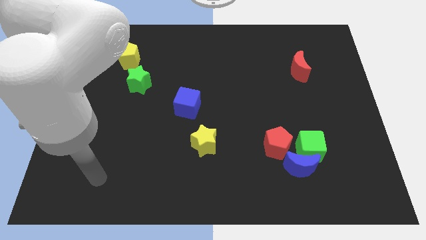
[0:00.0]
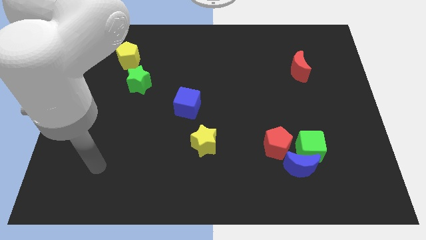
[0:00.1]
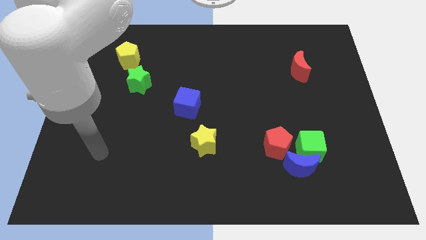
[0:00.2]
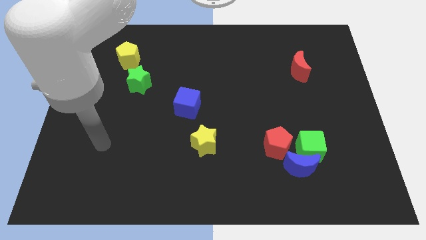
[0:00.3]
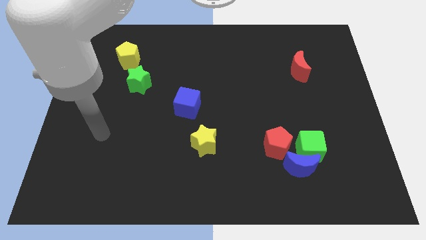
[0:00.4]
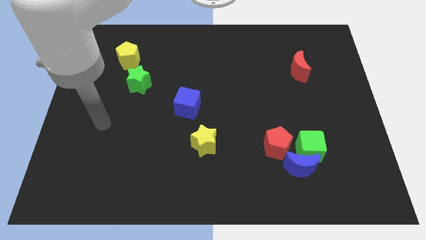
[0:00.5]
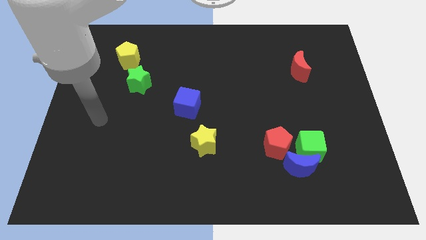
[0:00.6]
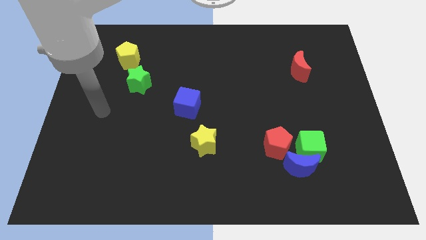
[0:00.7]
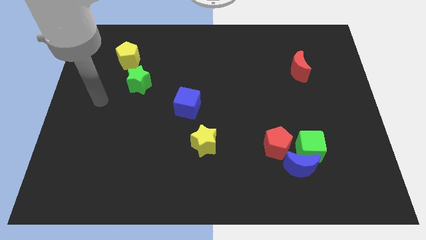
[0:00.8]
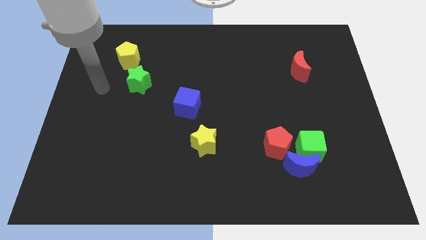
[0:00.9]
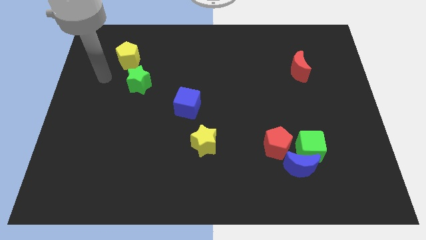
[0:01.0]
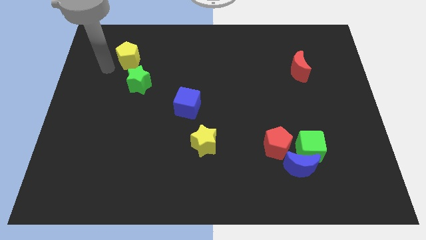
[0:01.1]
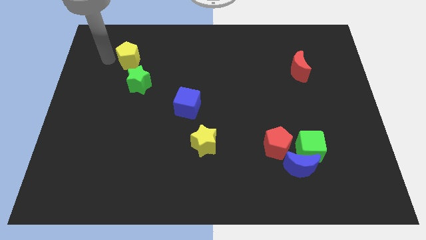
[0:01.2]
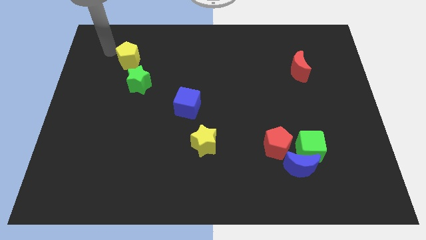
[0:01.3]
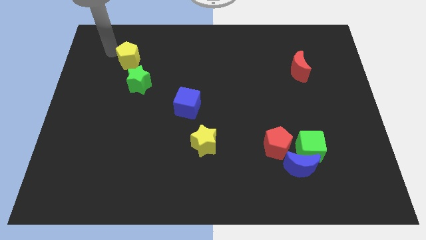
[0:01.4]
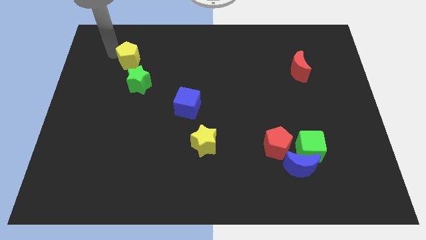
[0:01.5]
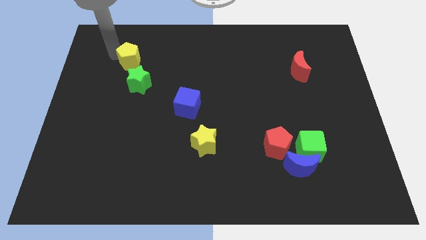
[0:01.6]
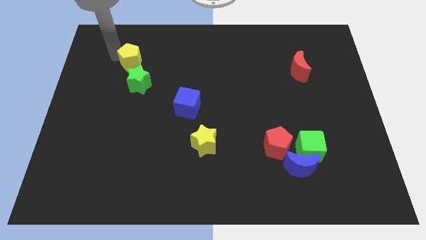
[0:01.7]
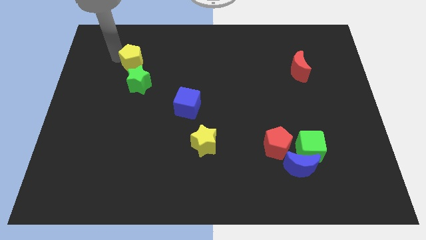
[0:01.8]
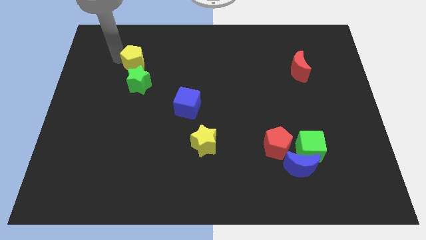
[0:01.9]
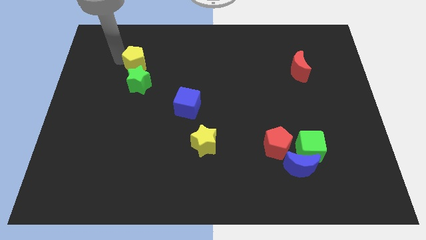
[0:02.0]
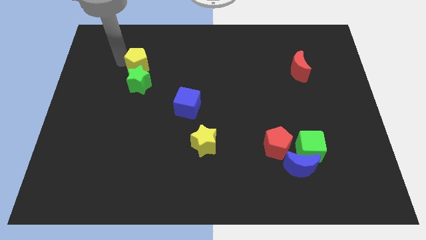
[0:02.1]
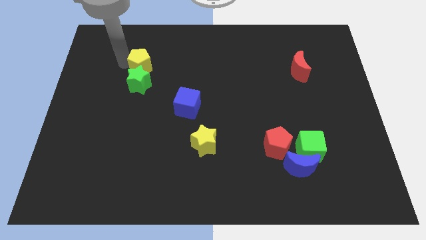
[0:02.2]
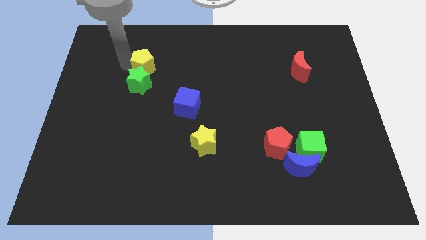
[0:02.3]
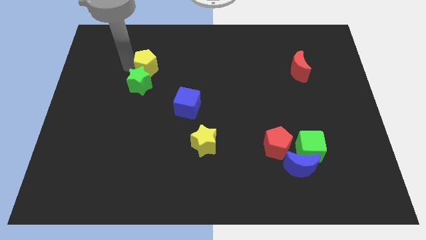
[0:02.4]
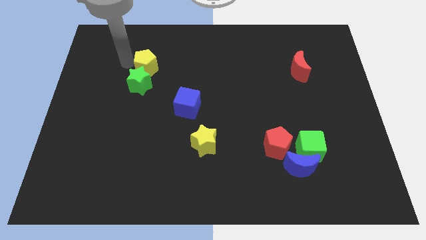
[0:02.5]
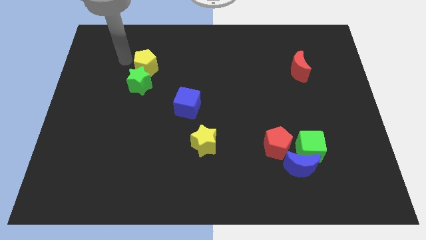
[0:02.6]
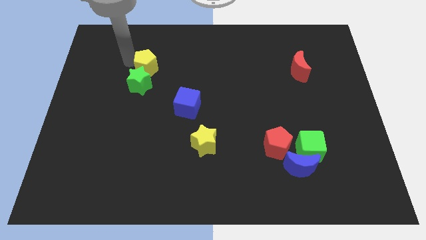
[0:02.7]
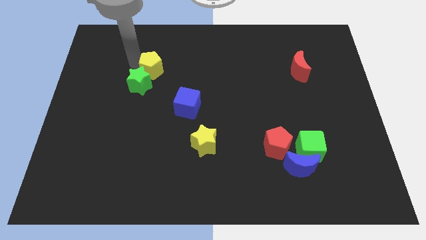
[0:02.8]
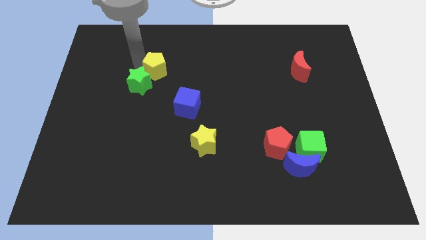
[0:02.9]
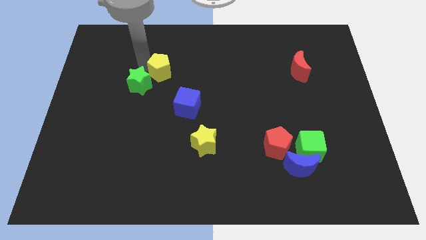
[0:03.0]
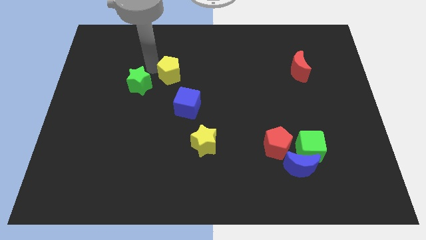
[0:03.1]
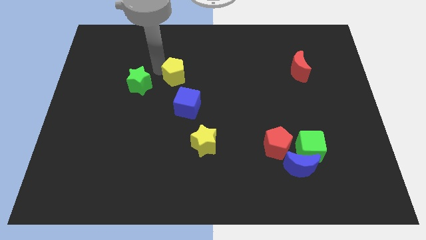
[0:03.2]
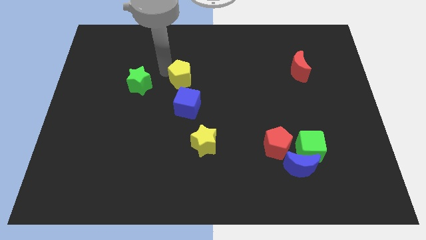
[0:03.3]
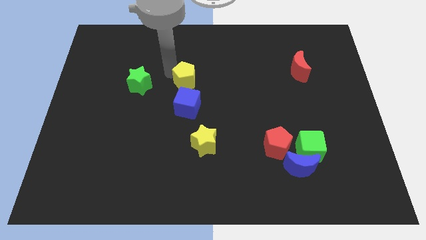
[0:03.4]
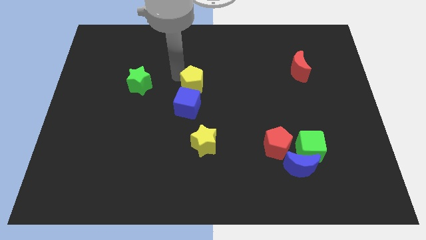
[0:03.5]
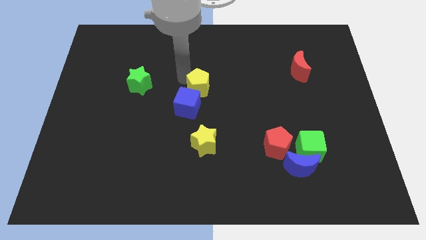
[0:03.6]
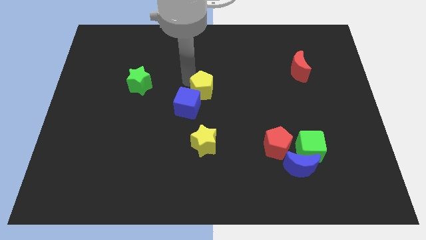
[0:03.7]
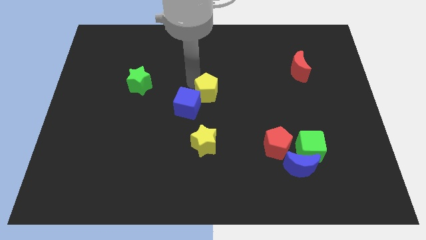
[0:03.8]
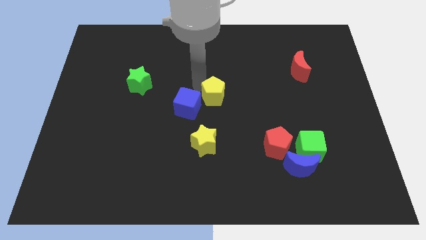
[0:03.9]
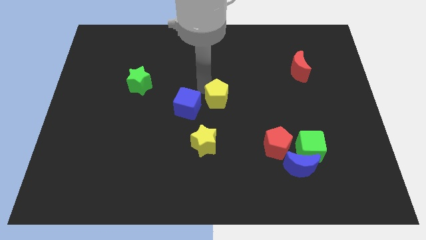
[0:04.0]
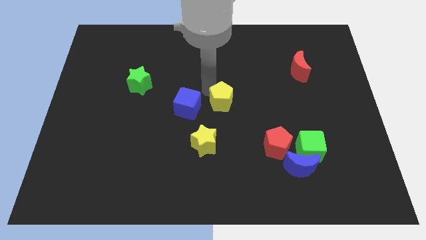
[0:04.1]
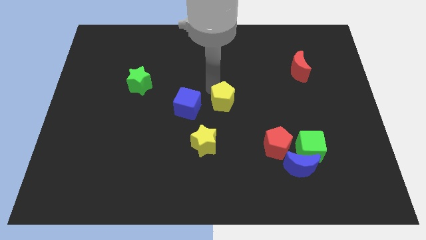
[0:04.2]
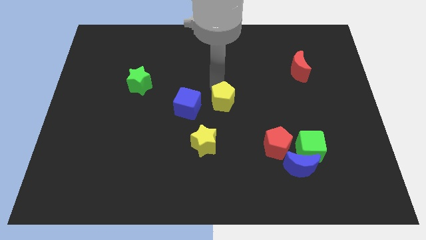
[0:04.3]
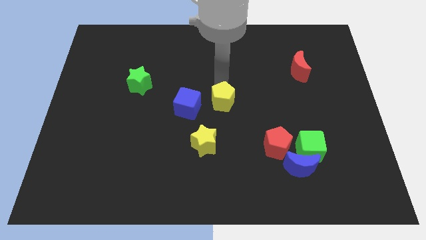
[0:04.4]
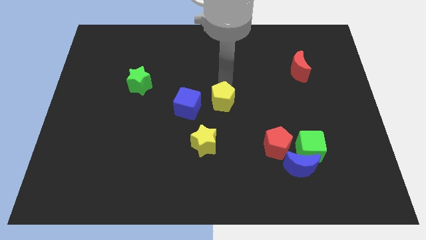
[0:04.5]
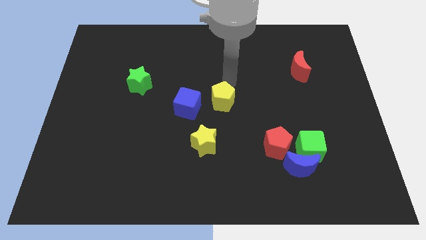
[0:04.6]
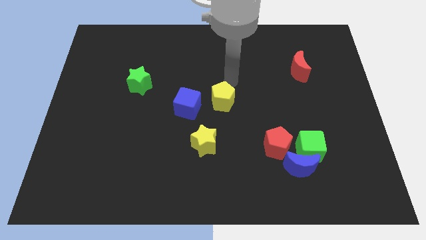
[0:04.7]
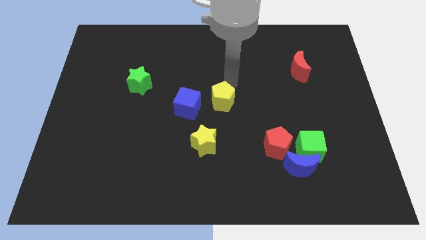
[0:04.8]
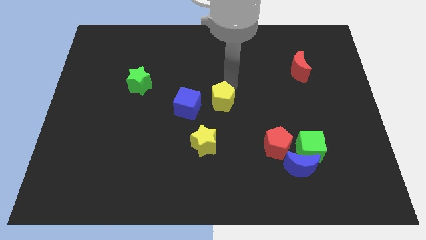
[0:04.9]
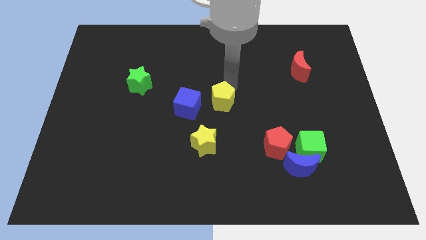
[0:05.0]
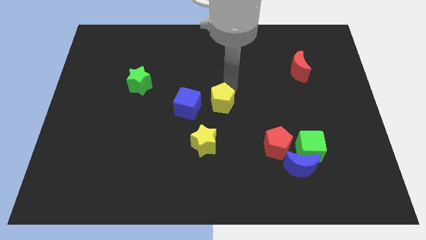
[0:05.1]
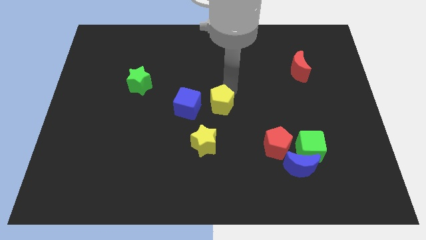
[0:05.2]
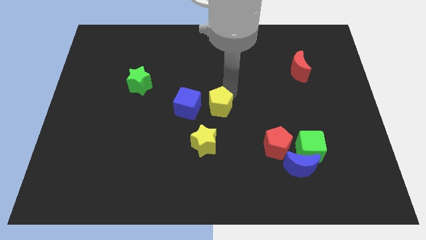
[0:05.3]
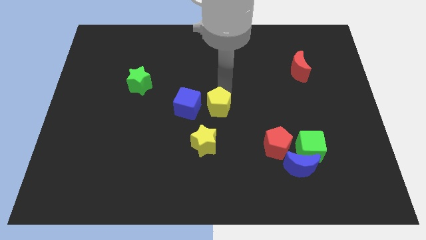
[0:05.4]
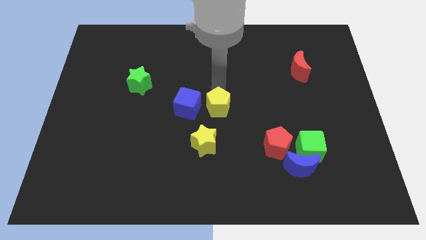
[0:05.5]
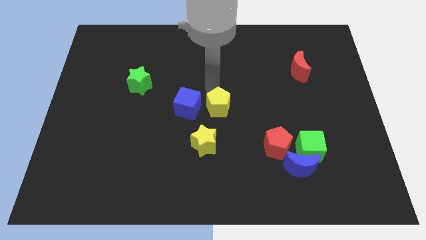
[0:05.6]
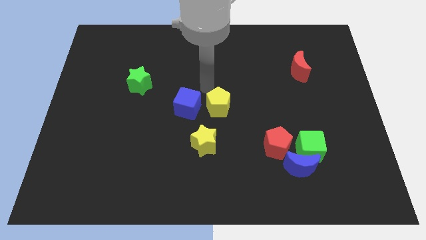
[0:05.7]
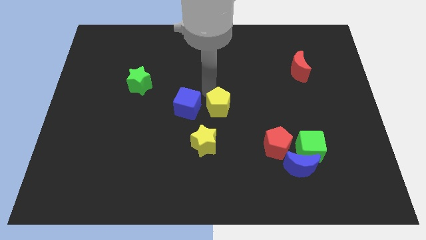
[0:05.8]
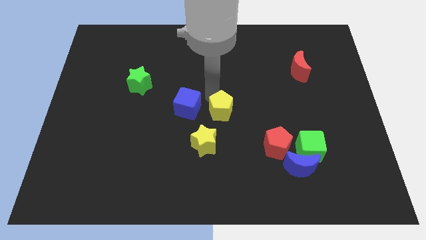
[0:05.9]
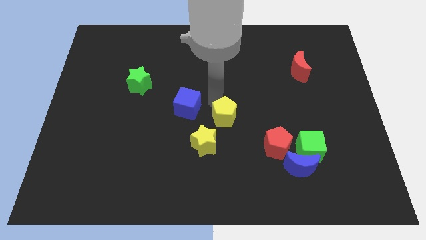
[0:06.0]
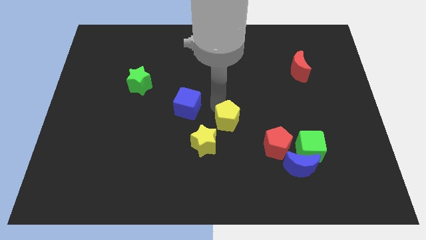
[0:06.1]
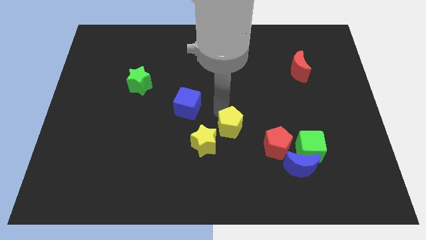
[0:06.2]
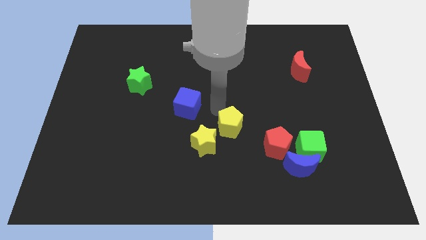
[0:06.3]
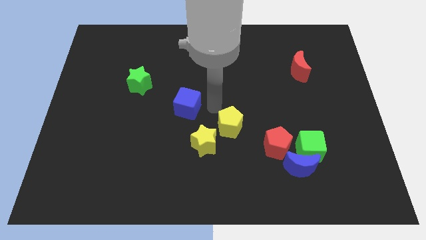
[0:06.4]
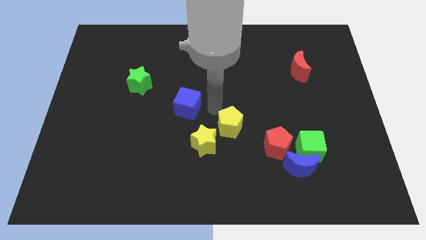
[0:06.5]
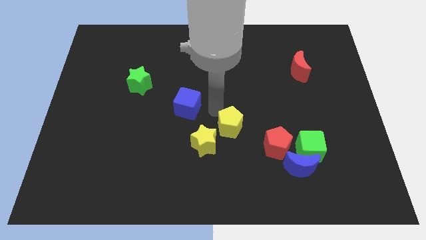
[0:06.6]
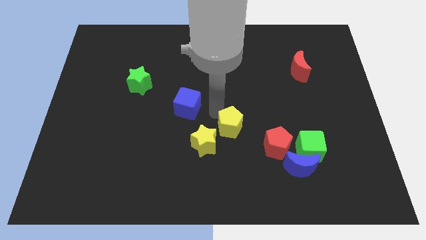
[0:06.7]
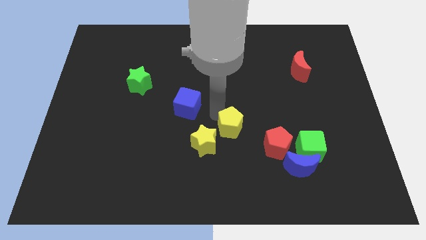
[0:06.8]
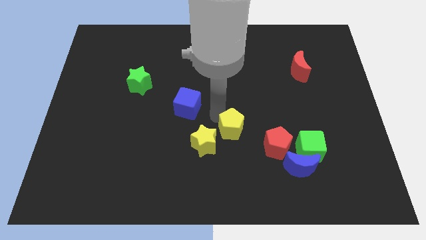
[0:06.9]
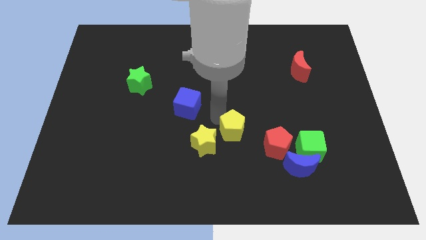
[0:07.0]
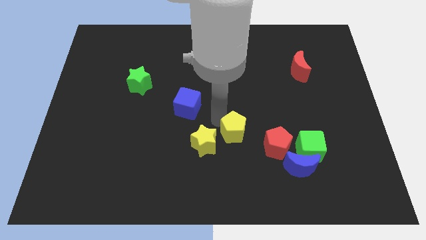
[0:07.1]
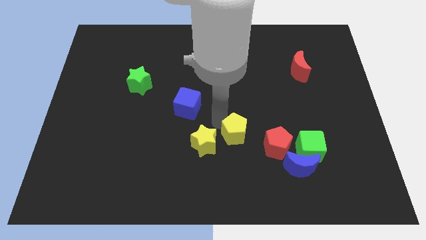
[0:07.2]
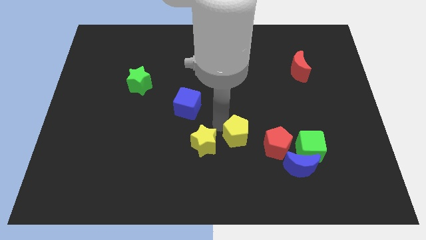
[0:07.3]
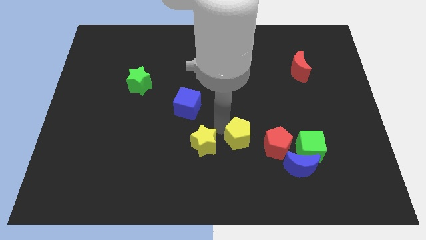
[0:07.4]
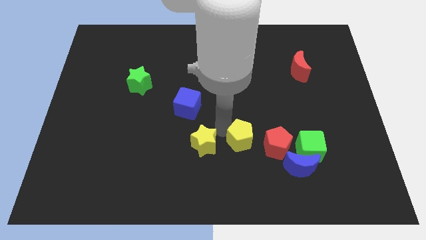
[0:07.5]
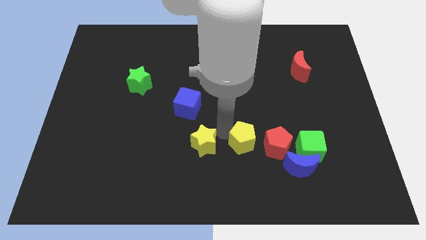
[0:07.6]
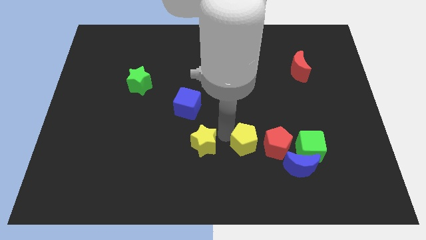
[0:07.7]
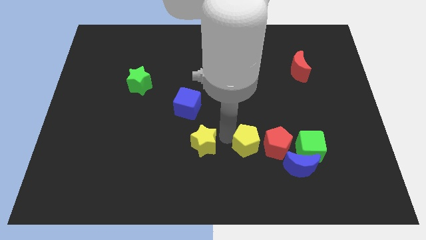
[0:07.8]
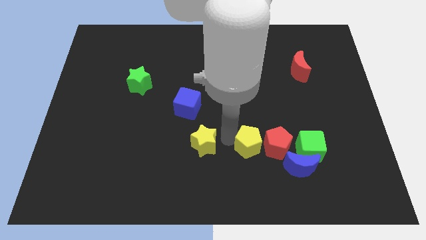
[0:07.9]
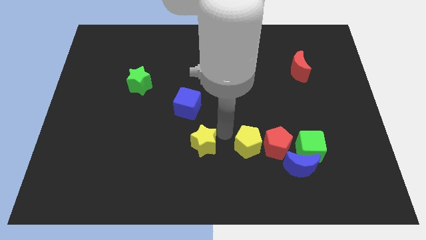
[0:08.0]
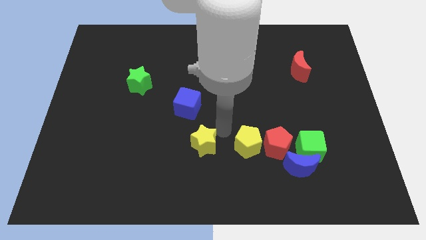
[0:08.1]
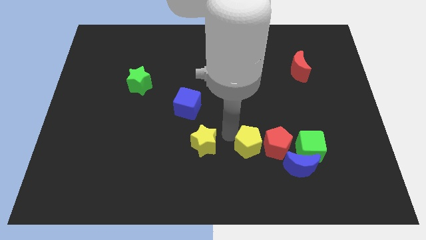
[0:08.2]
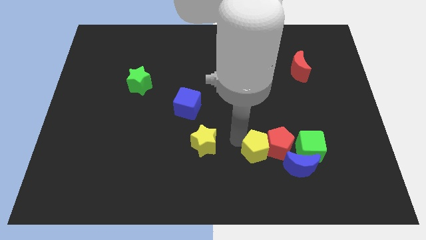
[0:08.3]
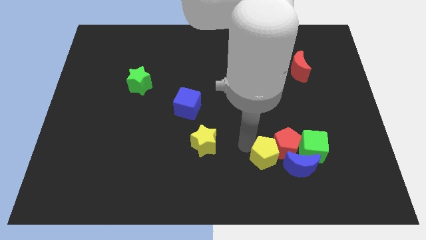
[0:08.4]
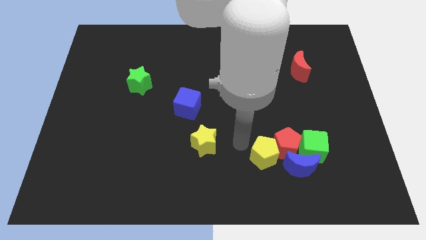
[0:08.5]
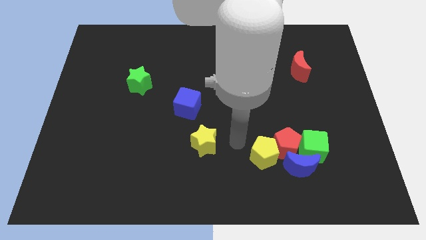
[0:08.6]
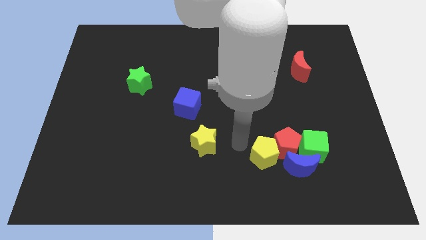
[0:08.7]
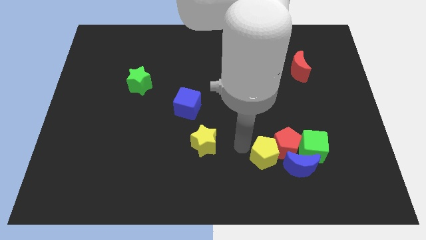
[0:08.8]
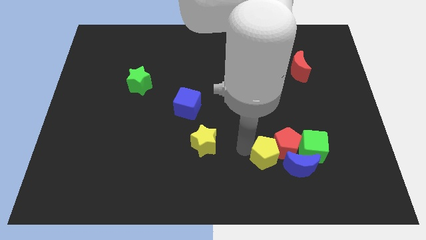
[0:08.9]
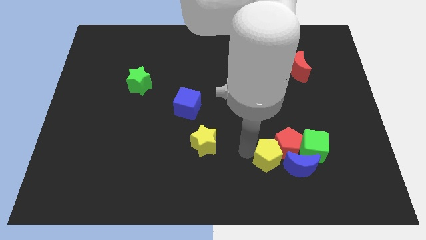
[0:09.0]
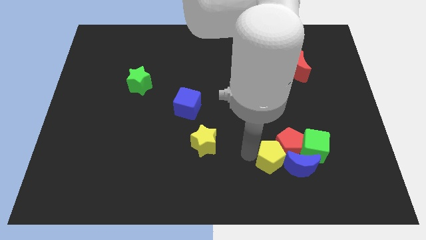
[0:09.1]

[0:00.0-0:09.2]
push the yellow pentagon to the bottom left side of the green cube
